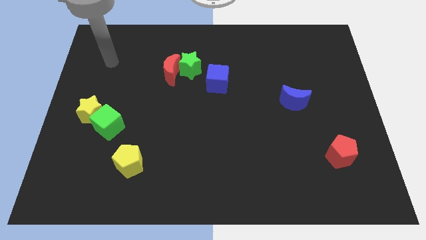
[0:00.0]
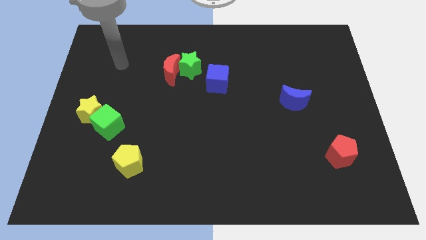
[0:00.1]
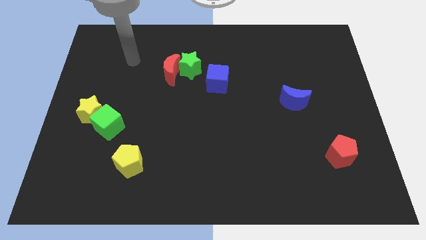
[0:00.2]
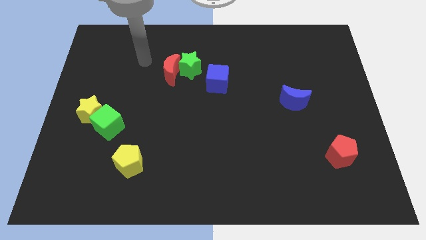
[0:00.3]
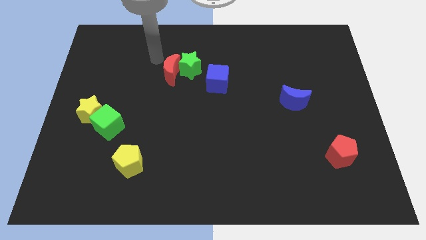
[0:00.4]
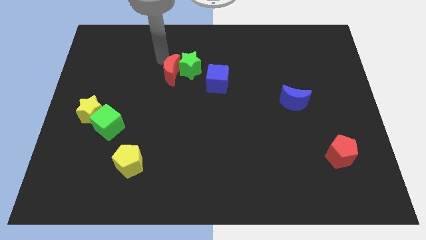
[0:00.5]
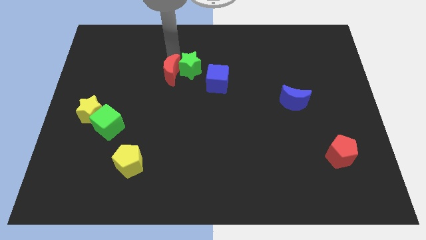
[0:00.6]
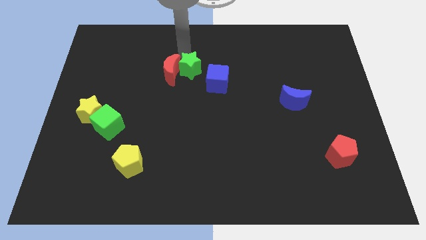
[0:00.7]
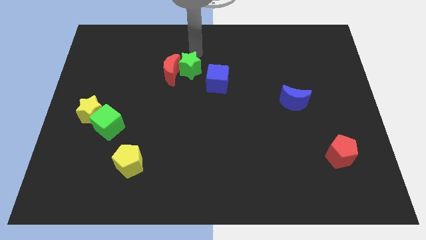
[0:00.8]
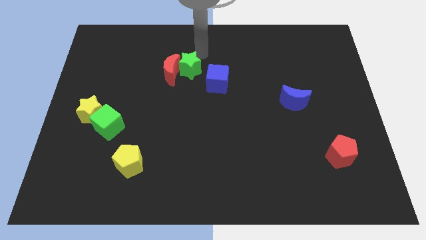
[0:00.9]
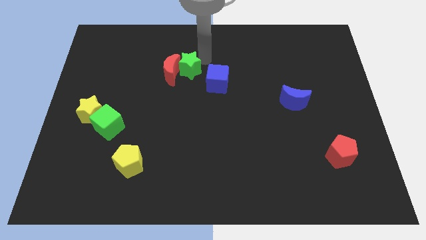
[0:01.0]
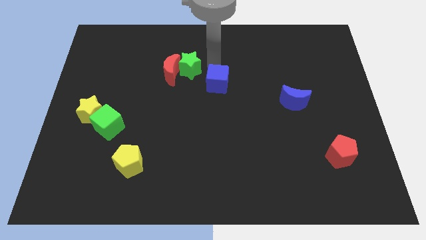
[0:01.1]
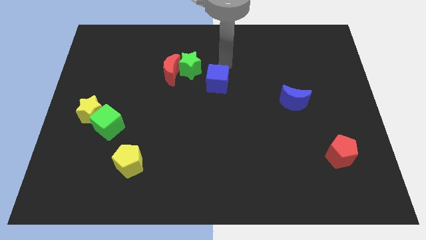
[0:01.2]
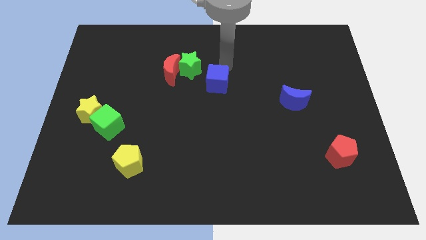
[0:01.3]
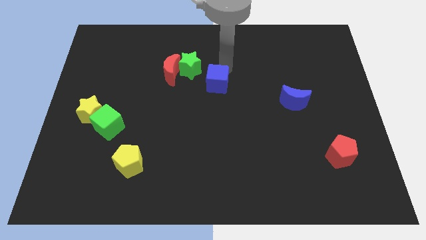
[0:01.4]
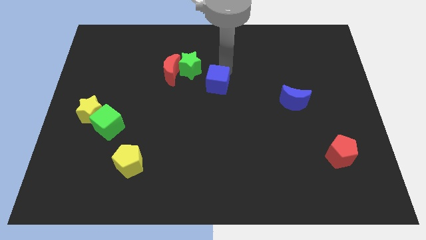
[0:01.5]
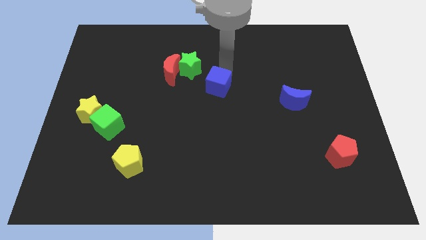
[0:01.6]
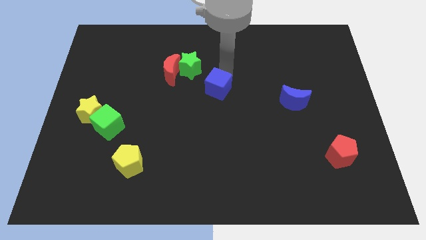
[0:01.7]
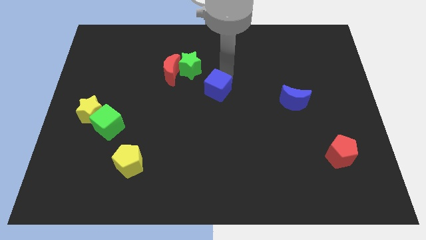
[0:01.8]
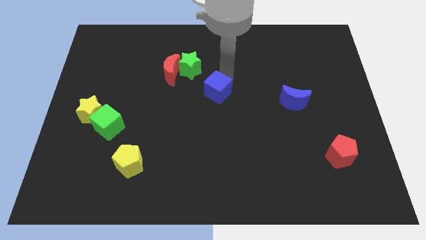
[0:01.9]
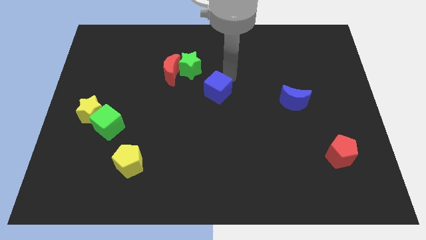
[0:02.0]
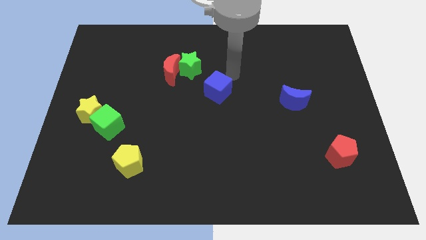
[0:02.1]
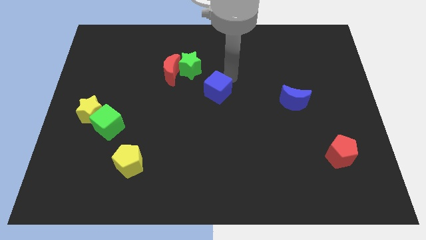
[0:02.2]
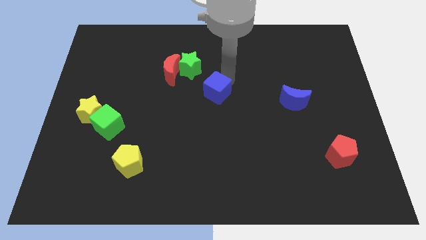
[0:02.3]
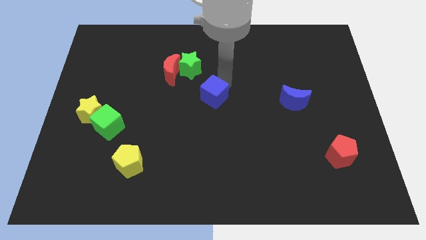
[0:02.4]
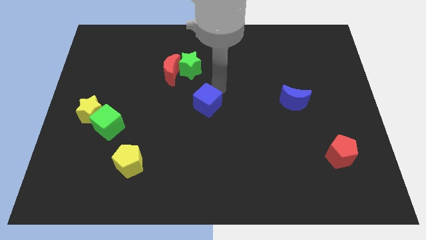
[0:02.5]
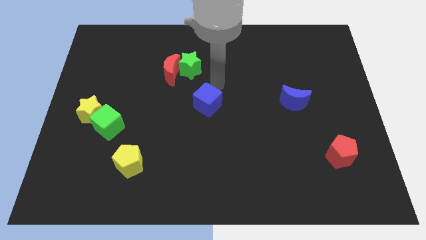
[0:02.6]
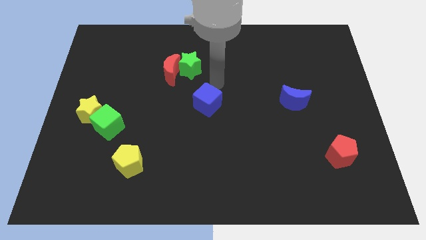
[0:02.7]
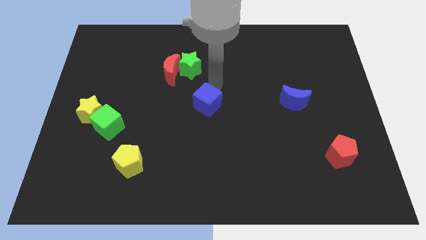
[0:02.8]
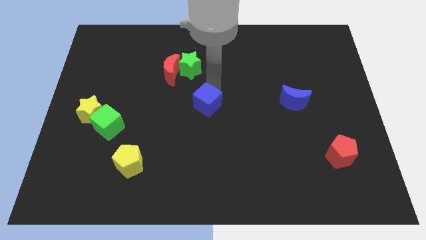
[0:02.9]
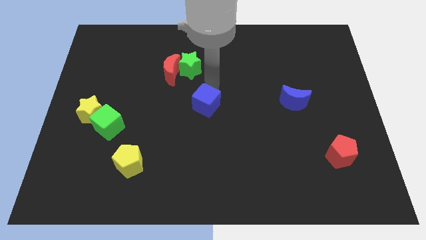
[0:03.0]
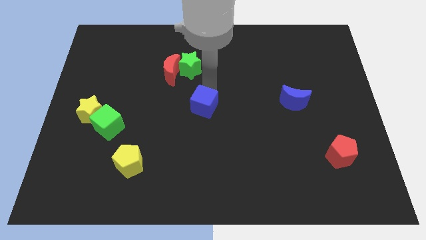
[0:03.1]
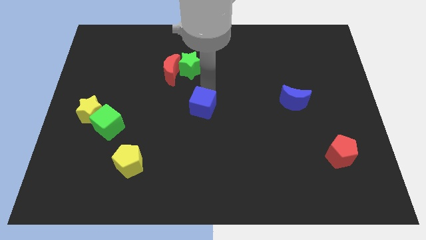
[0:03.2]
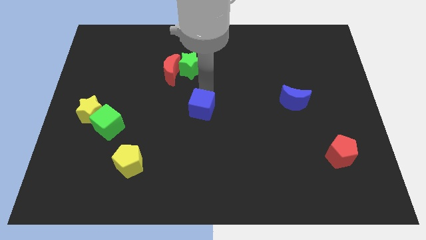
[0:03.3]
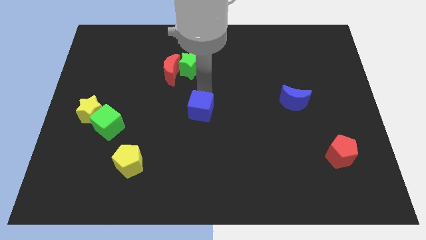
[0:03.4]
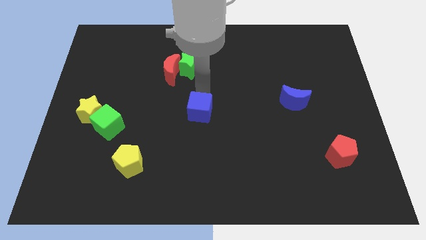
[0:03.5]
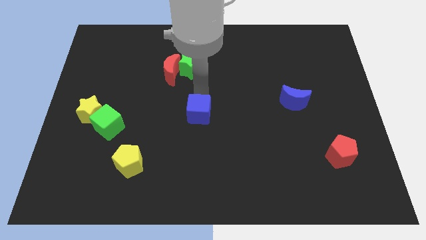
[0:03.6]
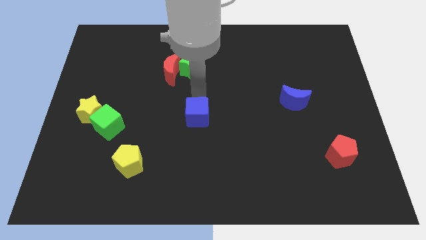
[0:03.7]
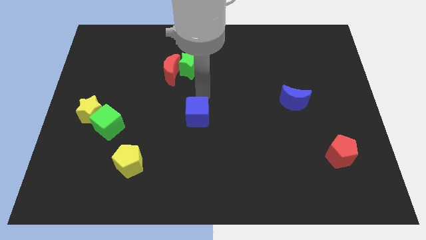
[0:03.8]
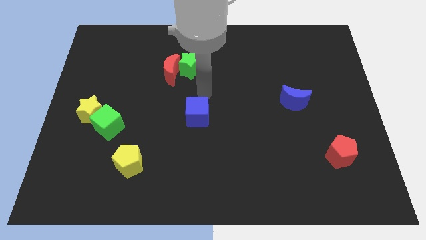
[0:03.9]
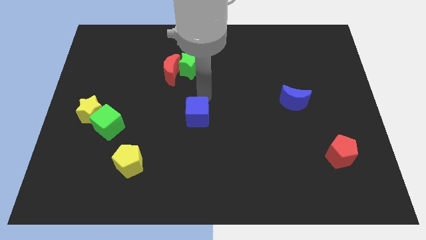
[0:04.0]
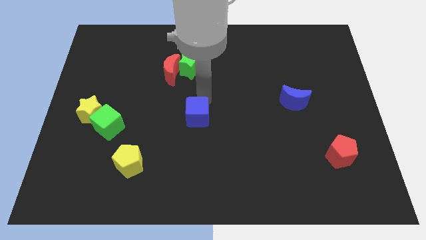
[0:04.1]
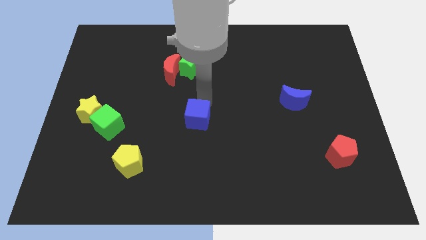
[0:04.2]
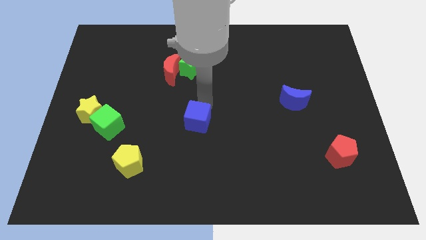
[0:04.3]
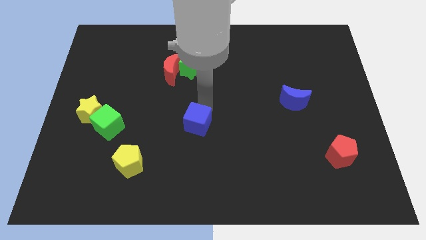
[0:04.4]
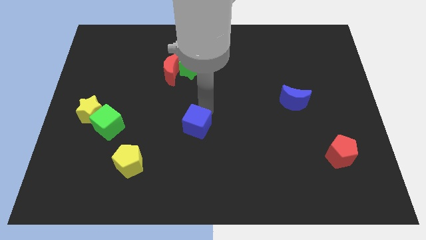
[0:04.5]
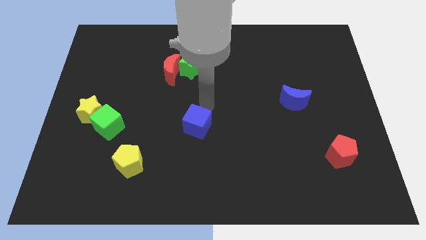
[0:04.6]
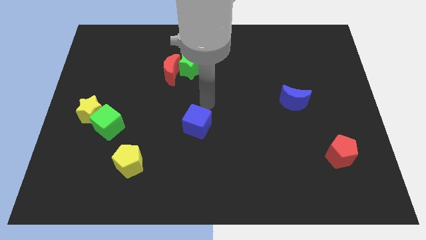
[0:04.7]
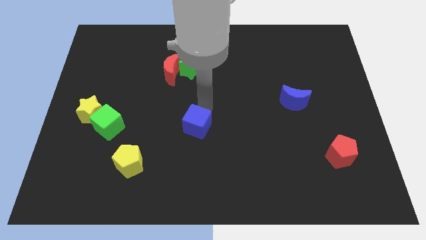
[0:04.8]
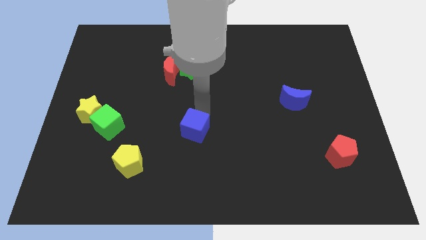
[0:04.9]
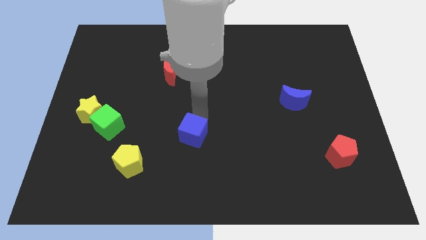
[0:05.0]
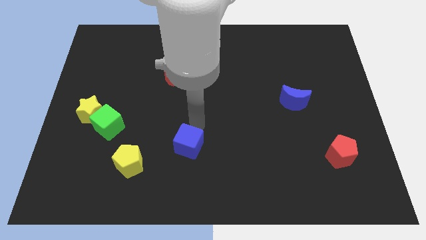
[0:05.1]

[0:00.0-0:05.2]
put the blue cube right of the yellow pentagon

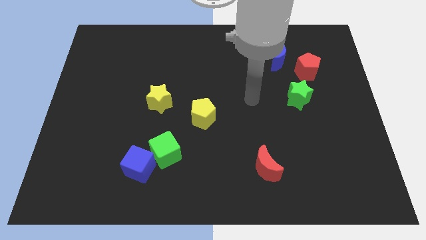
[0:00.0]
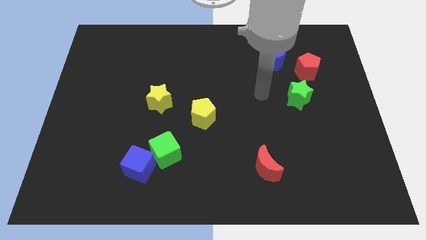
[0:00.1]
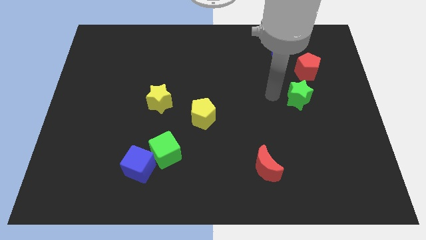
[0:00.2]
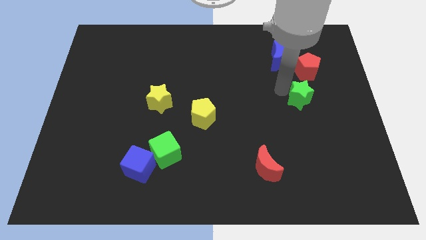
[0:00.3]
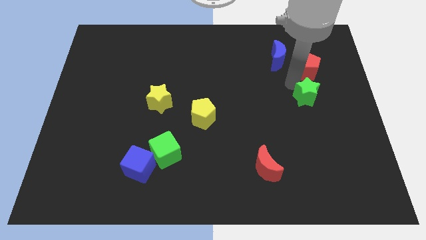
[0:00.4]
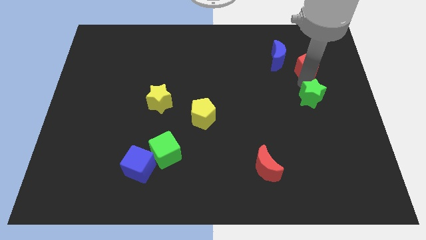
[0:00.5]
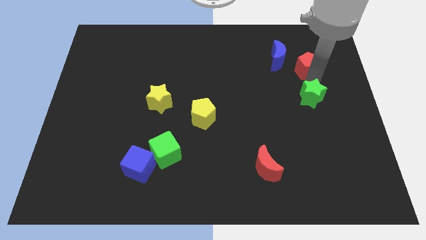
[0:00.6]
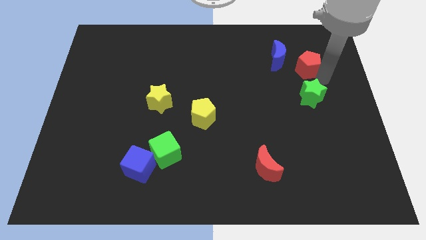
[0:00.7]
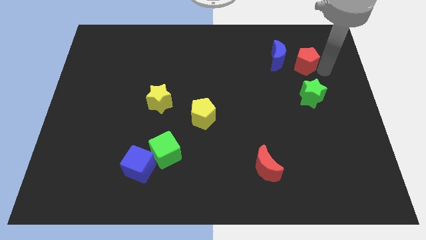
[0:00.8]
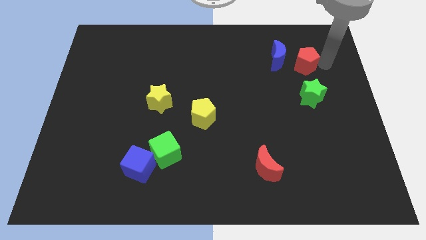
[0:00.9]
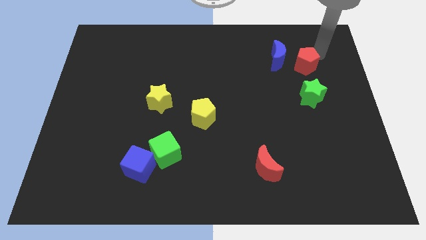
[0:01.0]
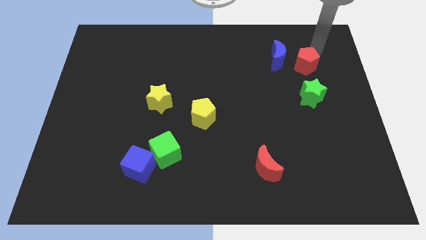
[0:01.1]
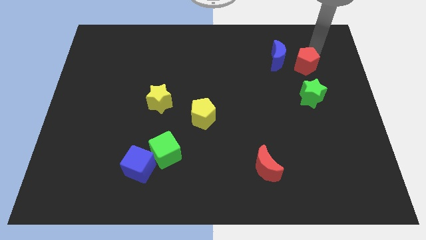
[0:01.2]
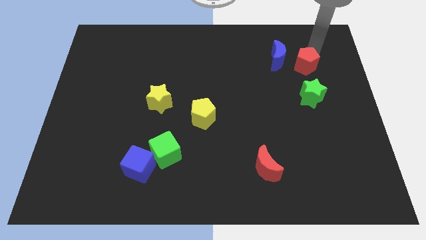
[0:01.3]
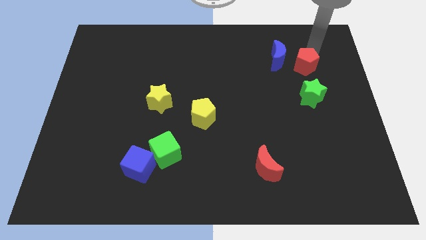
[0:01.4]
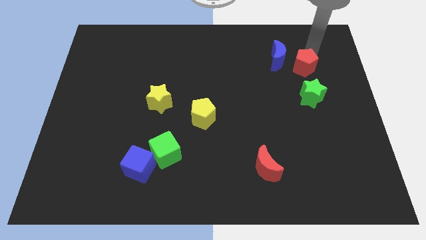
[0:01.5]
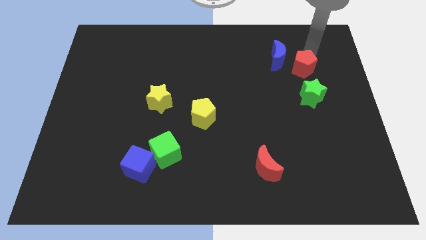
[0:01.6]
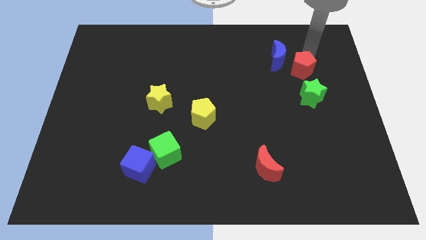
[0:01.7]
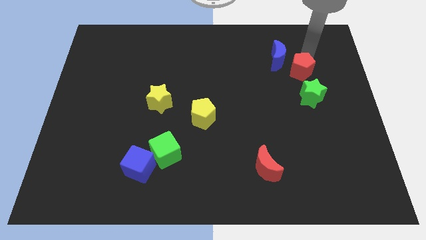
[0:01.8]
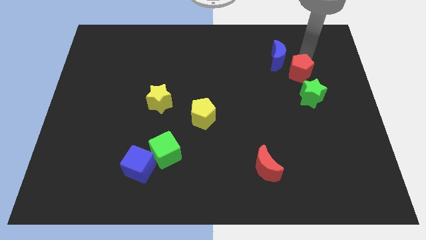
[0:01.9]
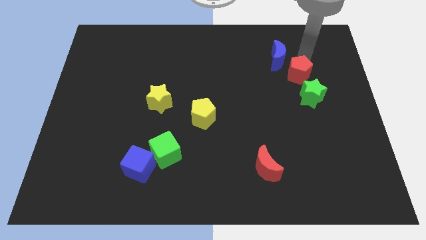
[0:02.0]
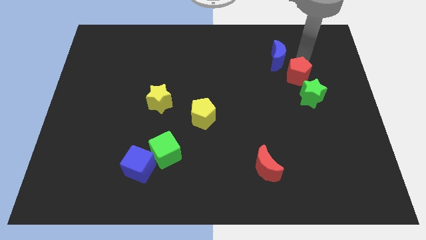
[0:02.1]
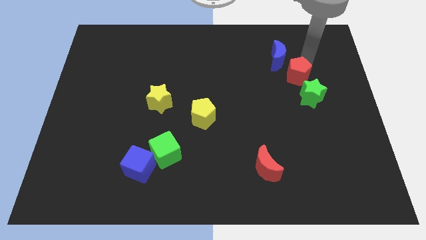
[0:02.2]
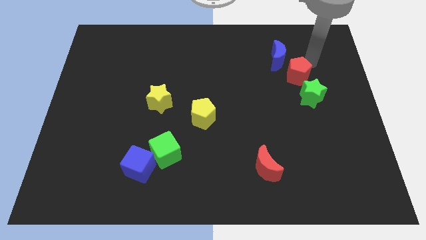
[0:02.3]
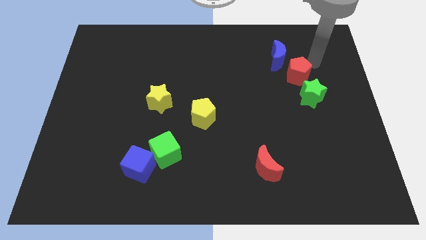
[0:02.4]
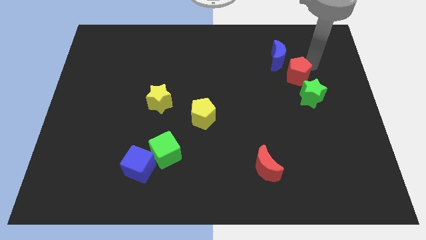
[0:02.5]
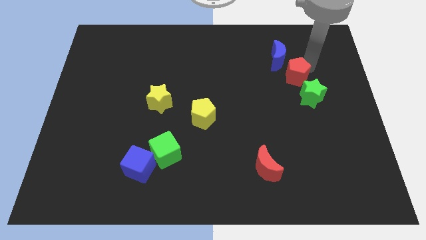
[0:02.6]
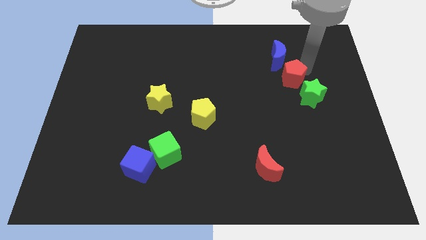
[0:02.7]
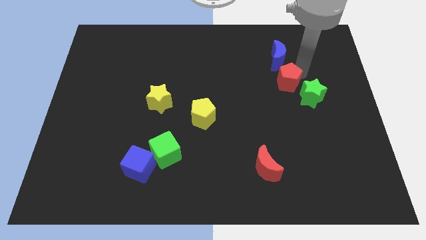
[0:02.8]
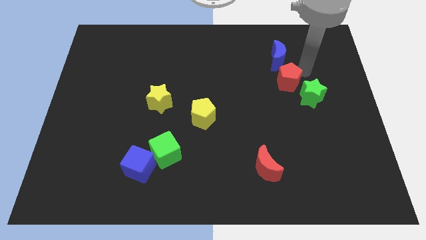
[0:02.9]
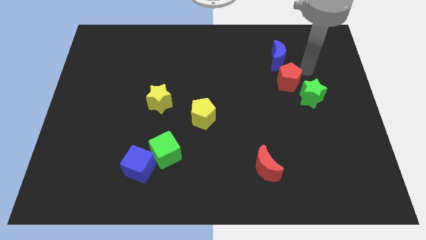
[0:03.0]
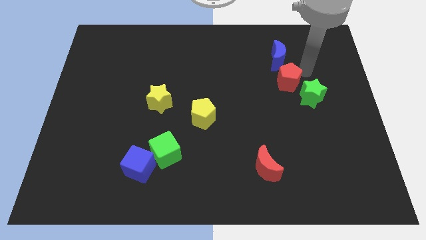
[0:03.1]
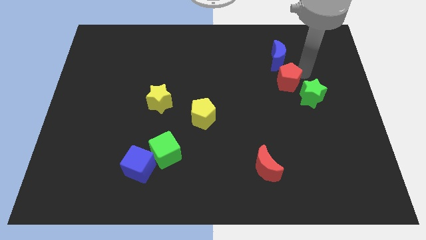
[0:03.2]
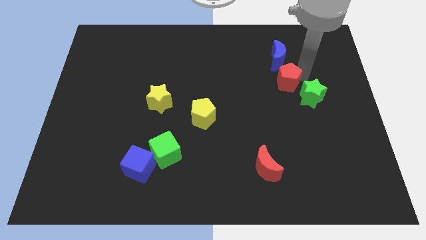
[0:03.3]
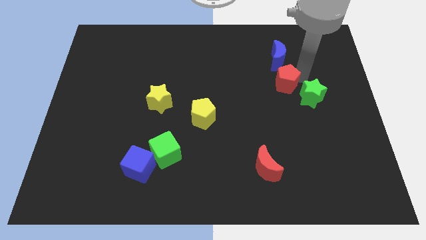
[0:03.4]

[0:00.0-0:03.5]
slide the red pentagon just left of the green star
